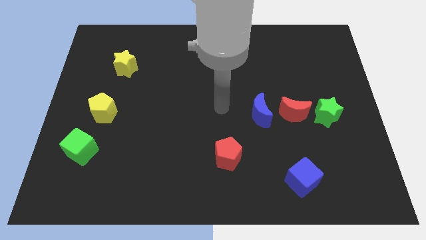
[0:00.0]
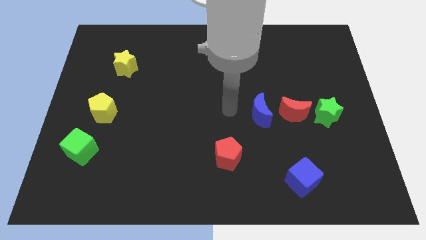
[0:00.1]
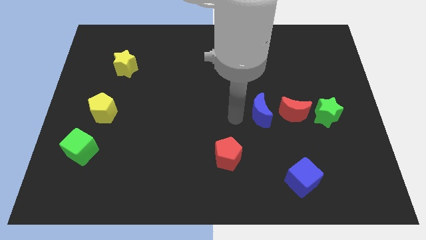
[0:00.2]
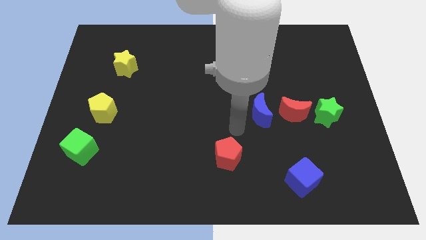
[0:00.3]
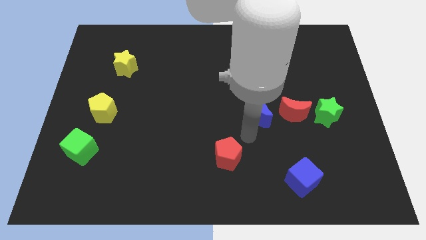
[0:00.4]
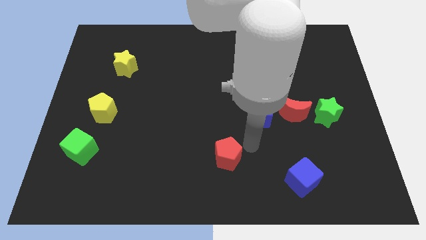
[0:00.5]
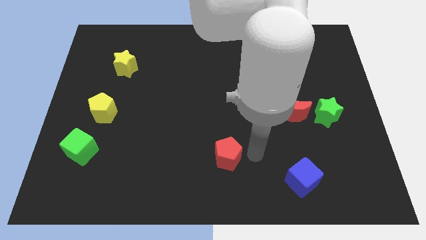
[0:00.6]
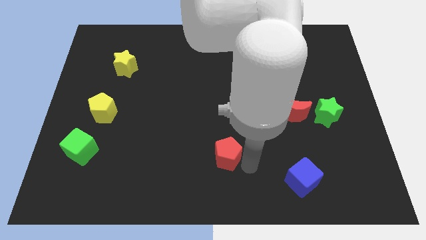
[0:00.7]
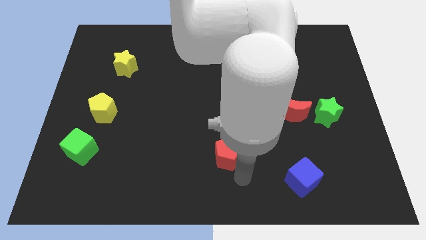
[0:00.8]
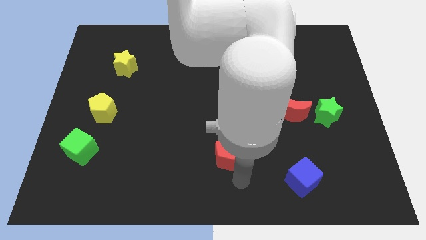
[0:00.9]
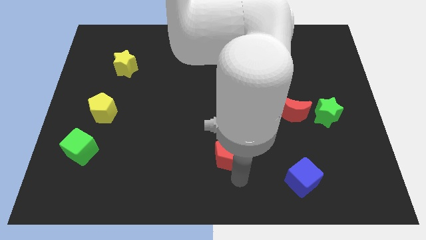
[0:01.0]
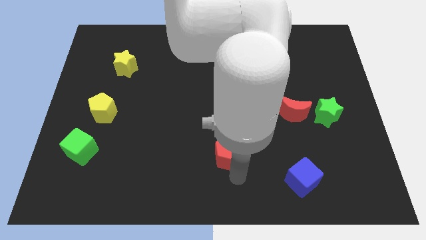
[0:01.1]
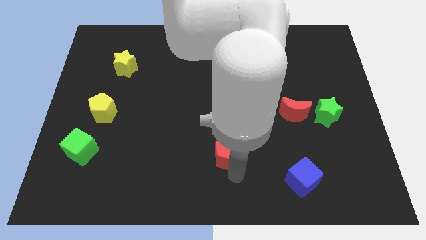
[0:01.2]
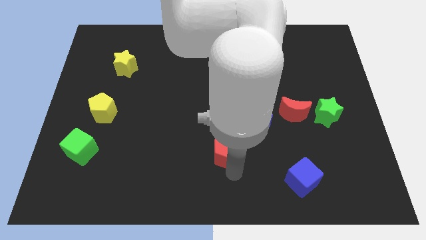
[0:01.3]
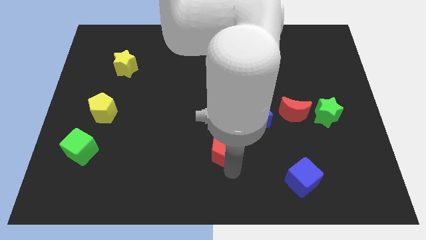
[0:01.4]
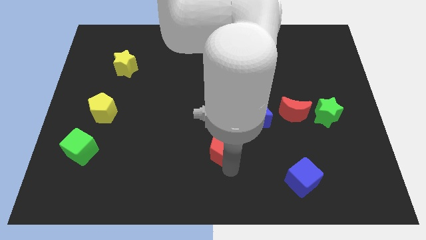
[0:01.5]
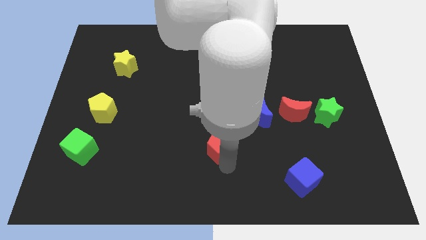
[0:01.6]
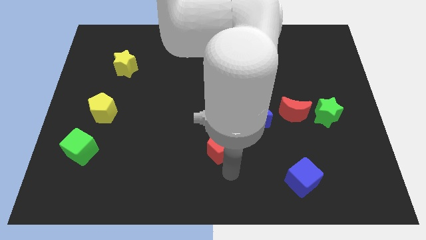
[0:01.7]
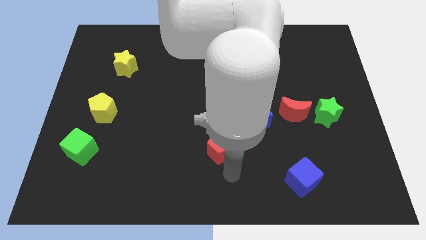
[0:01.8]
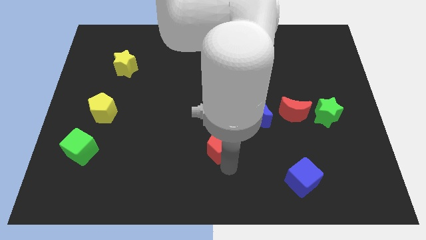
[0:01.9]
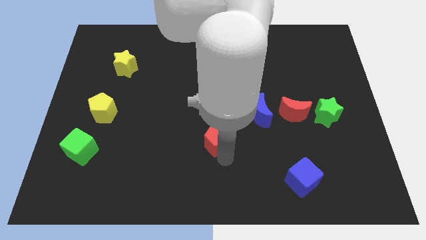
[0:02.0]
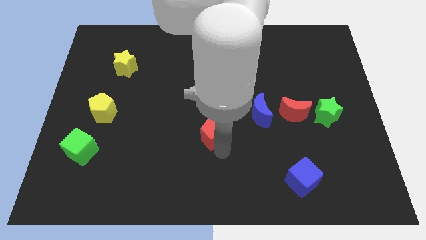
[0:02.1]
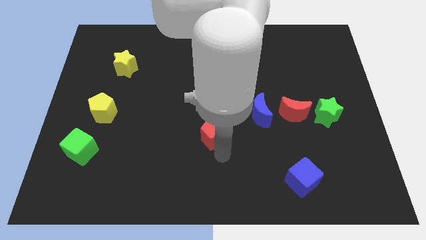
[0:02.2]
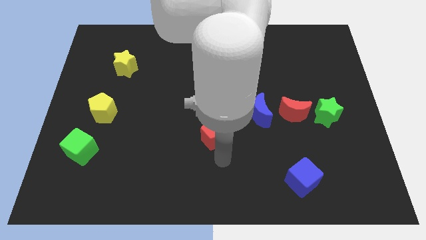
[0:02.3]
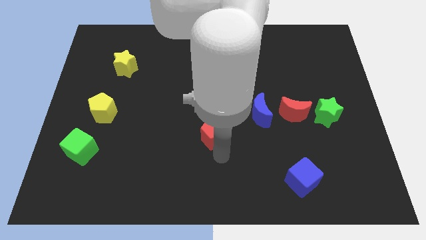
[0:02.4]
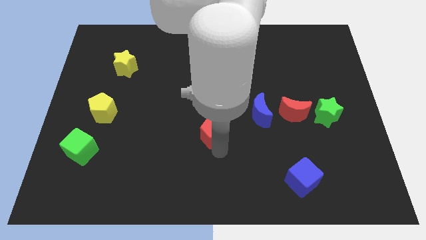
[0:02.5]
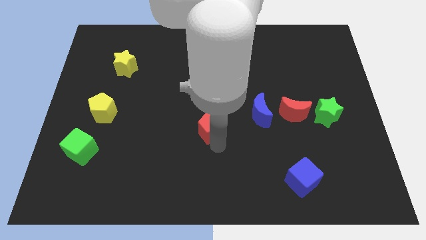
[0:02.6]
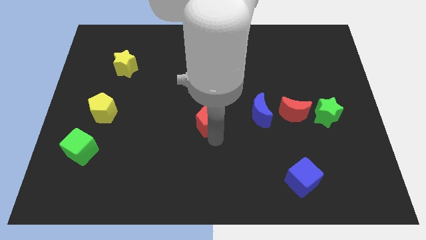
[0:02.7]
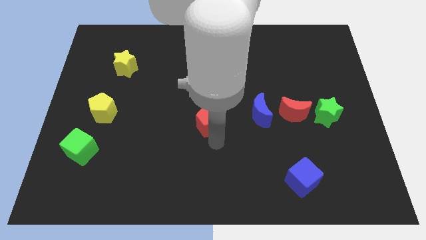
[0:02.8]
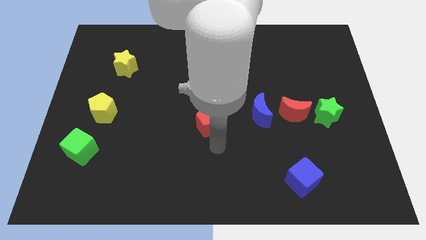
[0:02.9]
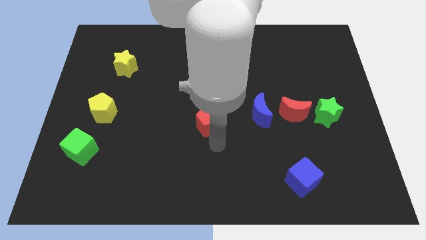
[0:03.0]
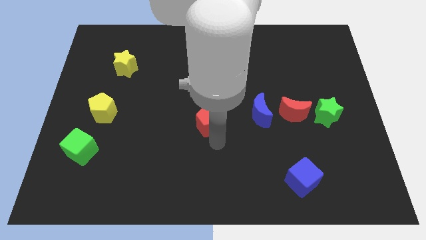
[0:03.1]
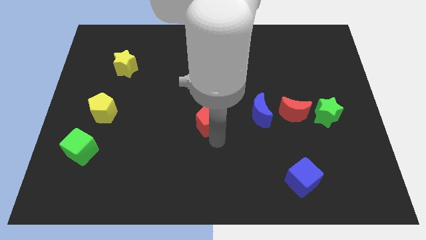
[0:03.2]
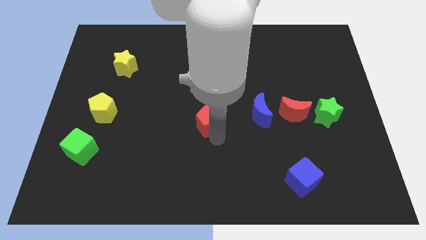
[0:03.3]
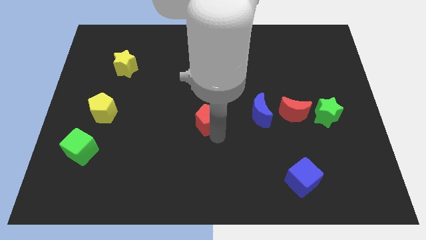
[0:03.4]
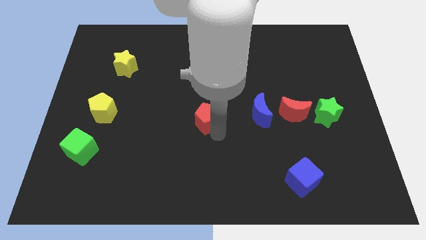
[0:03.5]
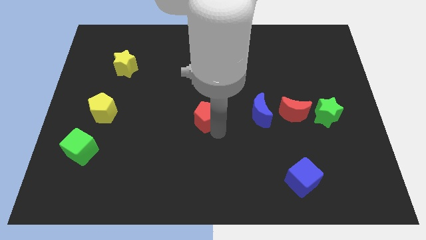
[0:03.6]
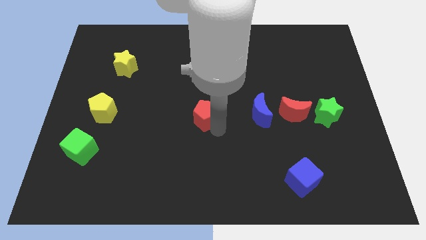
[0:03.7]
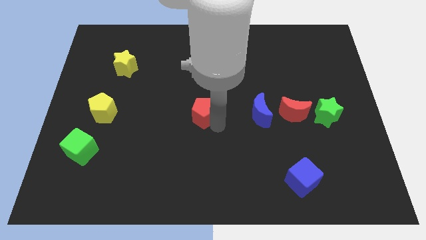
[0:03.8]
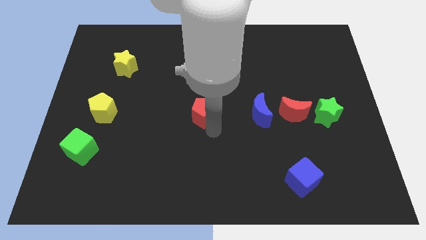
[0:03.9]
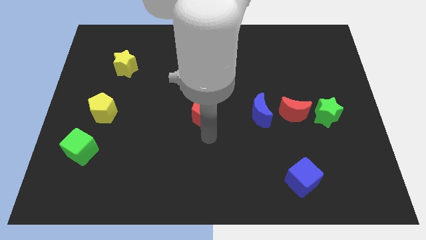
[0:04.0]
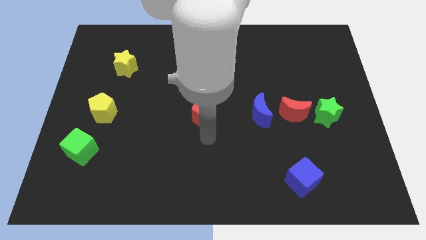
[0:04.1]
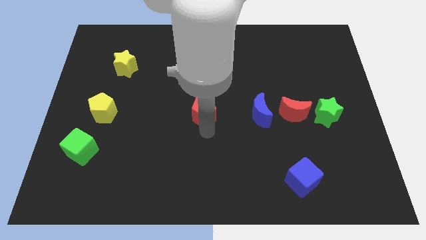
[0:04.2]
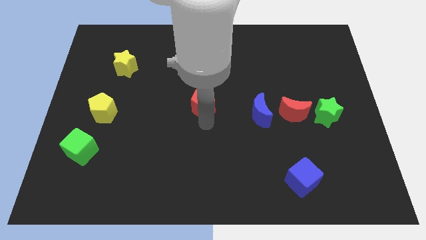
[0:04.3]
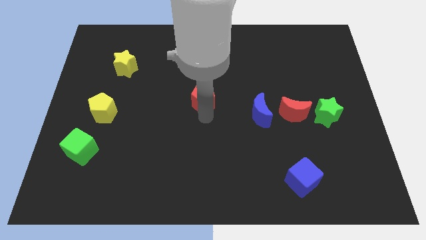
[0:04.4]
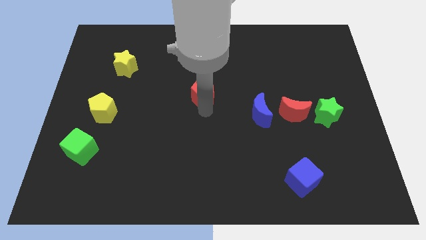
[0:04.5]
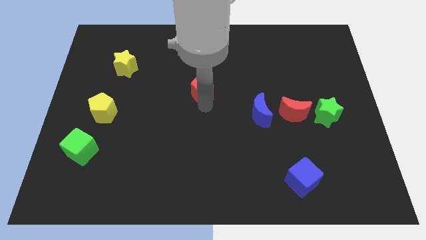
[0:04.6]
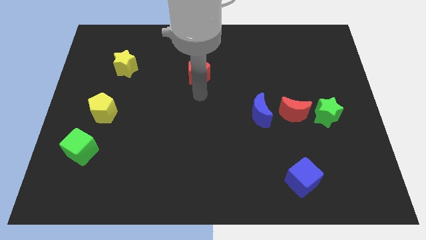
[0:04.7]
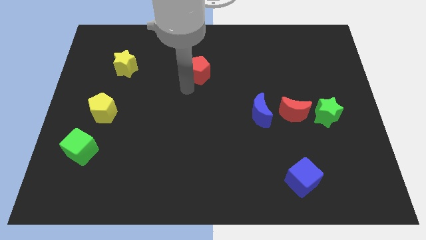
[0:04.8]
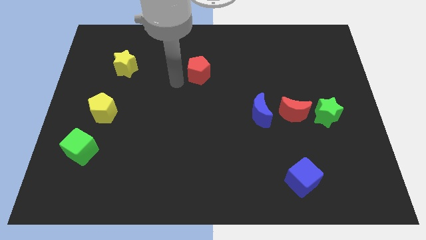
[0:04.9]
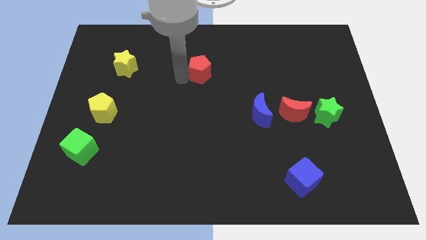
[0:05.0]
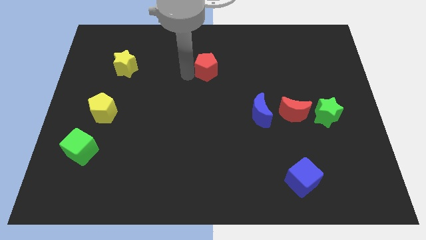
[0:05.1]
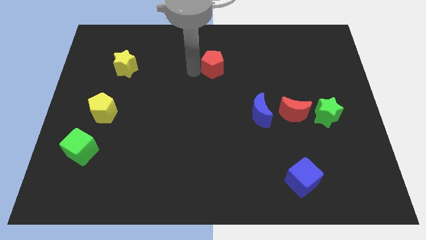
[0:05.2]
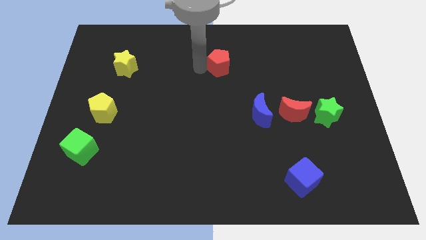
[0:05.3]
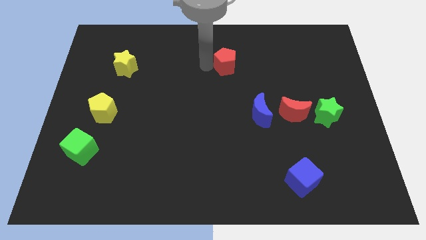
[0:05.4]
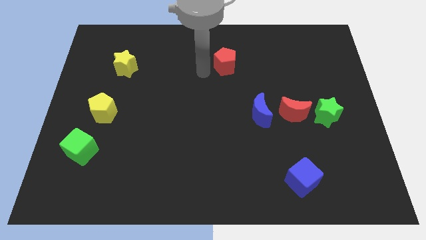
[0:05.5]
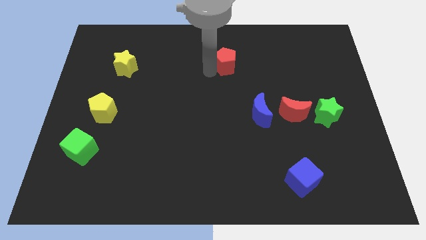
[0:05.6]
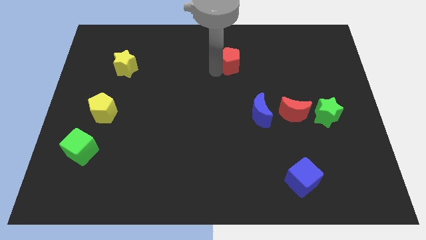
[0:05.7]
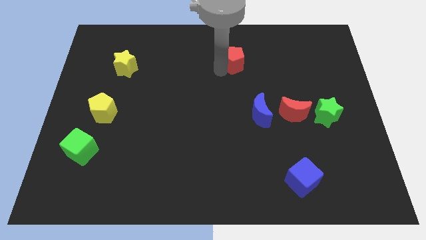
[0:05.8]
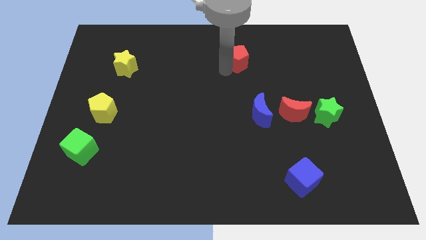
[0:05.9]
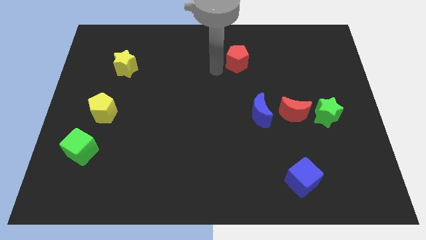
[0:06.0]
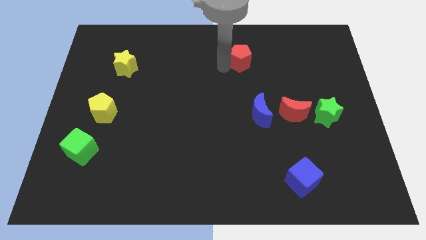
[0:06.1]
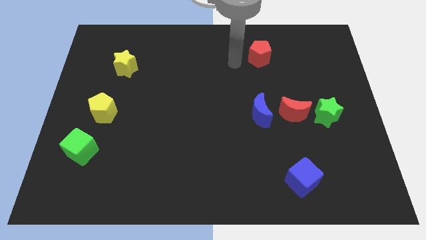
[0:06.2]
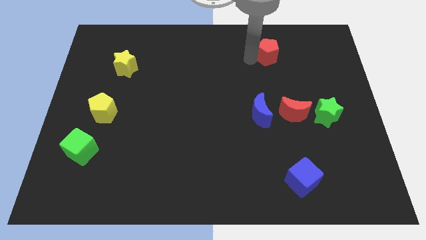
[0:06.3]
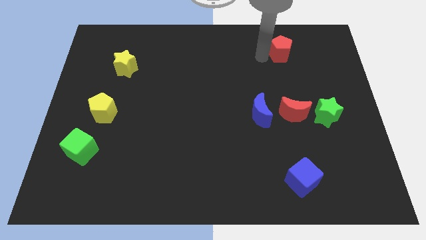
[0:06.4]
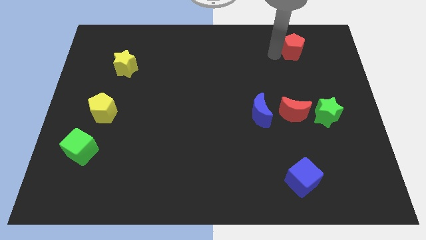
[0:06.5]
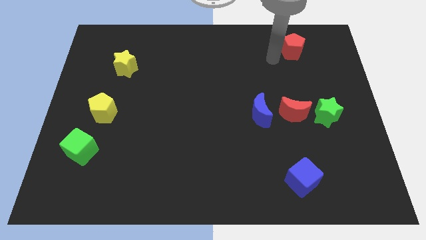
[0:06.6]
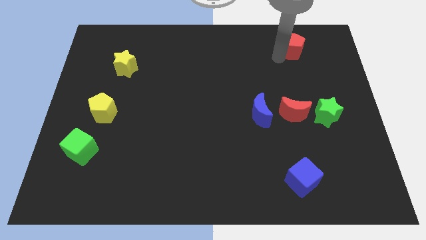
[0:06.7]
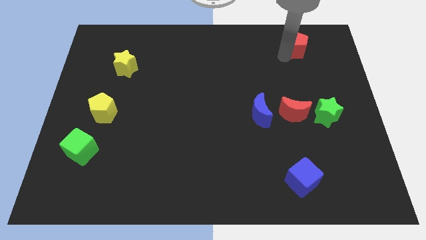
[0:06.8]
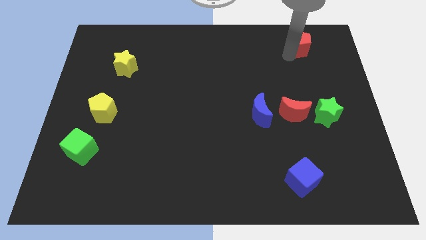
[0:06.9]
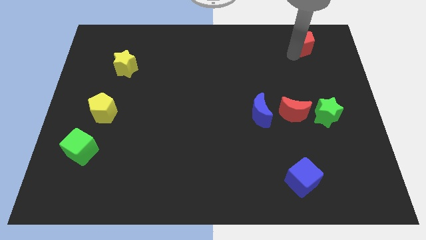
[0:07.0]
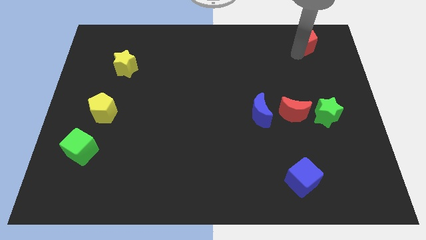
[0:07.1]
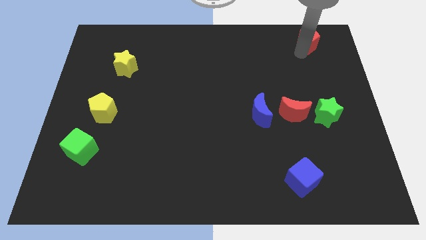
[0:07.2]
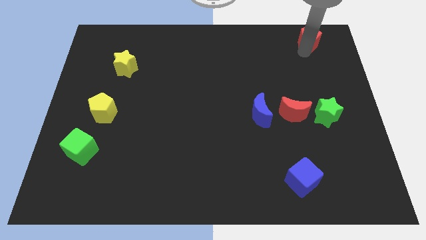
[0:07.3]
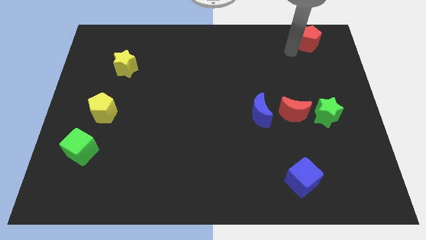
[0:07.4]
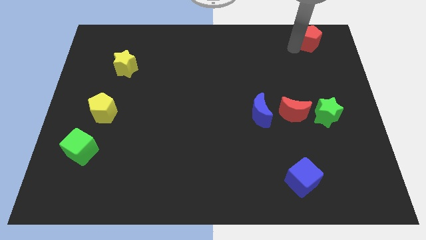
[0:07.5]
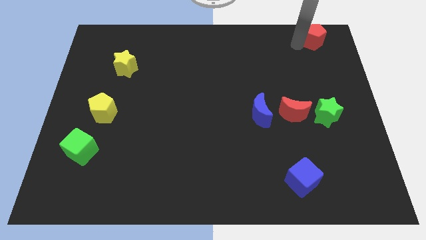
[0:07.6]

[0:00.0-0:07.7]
slide the red pentagon to the top right corner
